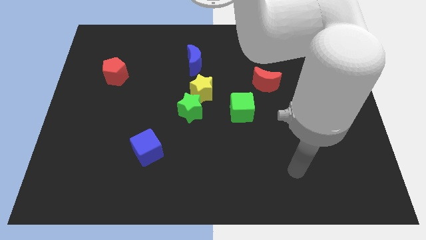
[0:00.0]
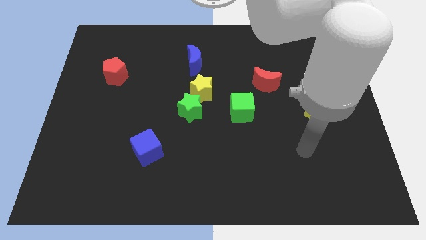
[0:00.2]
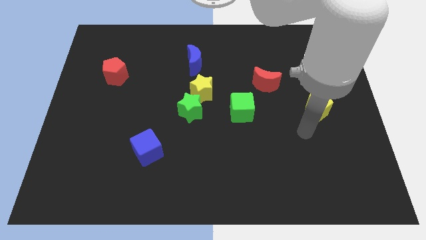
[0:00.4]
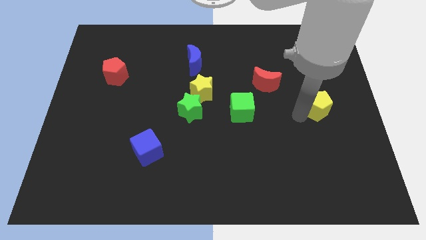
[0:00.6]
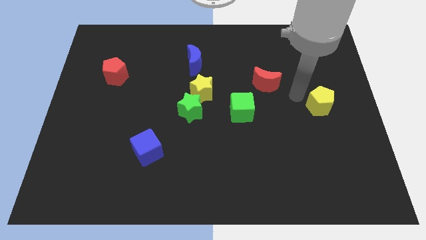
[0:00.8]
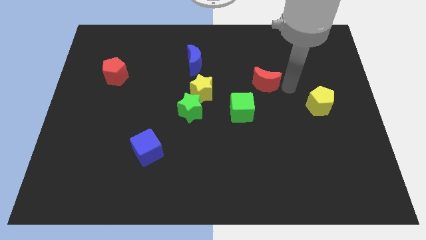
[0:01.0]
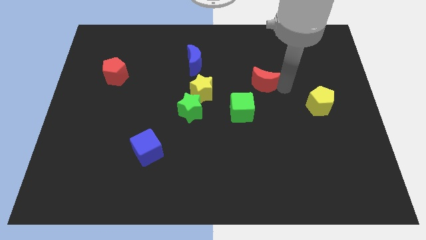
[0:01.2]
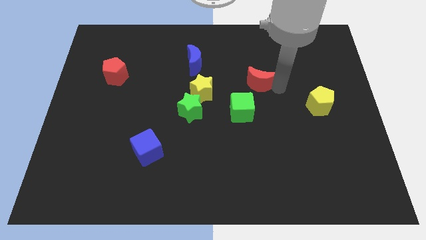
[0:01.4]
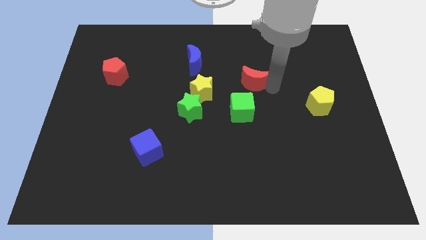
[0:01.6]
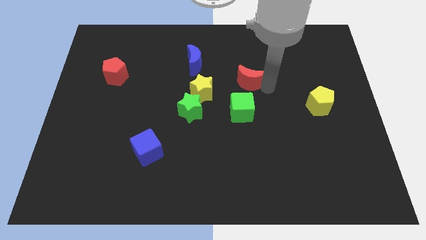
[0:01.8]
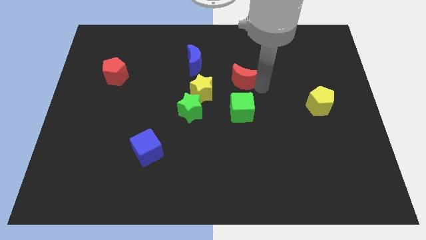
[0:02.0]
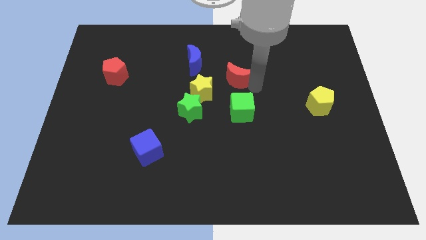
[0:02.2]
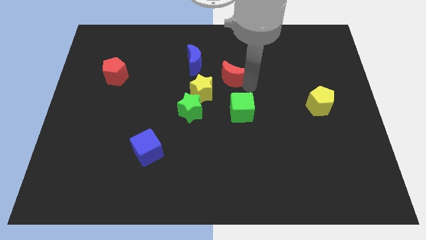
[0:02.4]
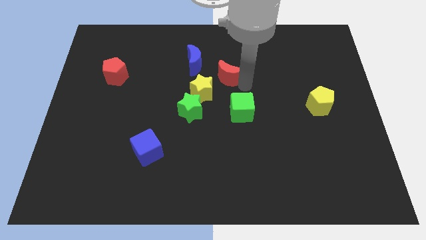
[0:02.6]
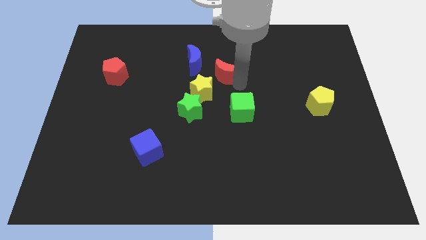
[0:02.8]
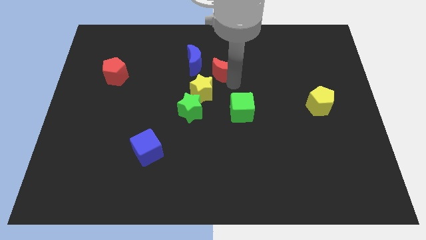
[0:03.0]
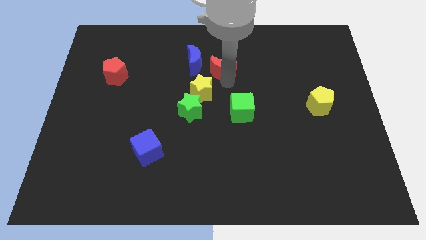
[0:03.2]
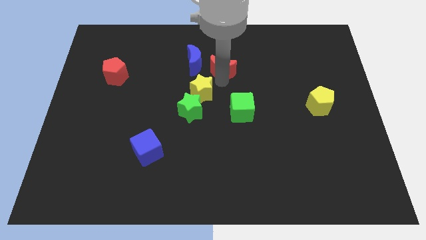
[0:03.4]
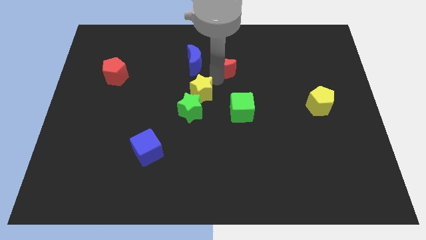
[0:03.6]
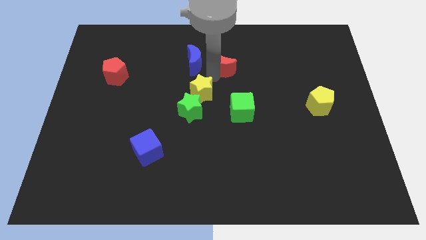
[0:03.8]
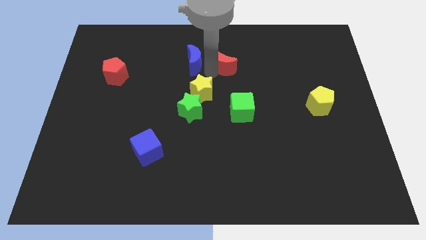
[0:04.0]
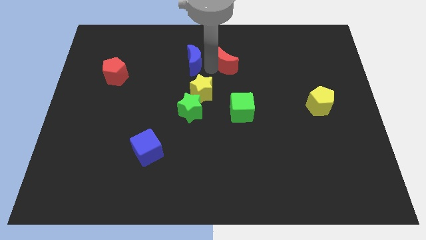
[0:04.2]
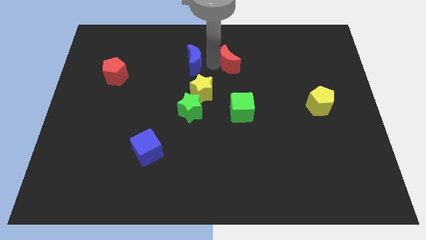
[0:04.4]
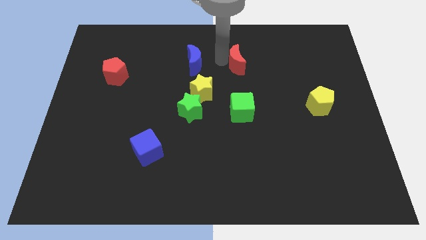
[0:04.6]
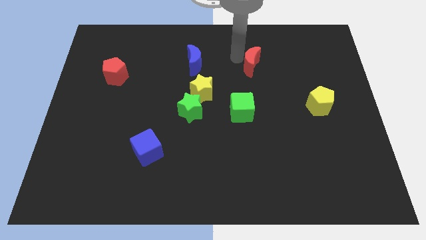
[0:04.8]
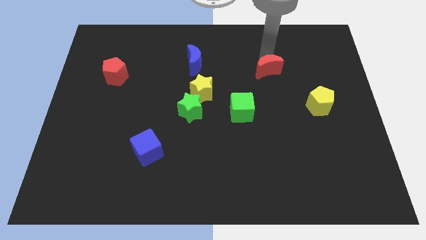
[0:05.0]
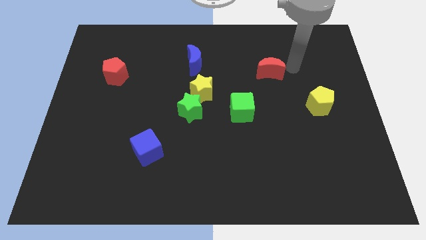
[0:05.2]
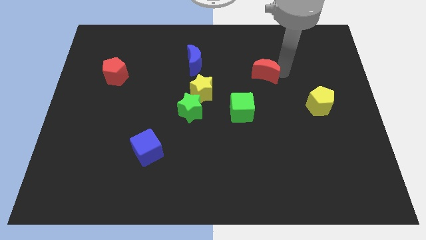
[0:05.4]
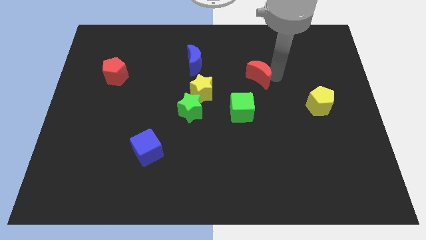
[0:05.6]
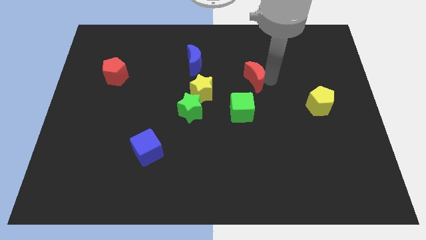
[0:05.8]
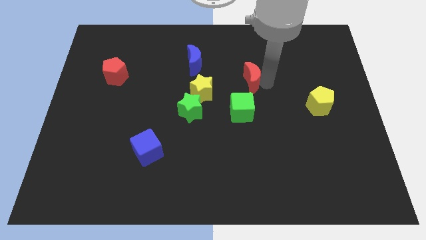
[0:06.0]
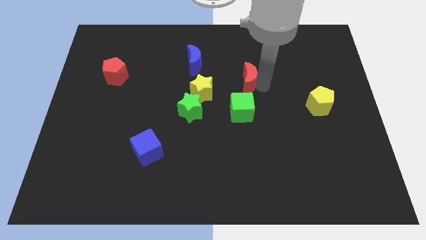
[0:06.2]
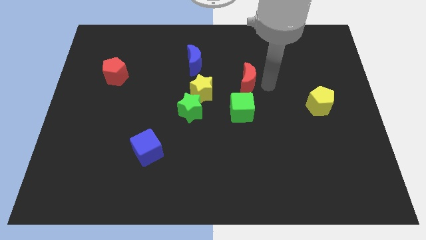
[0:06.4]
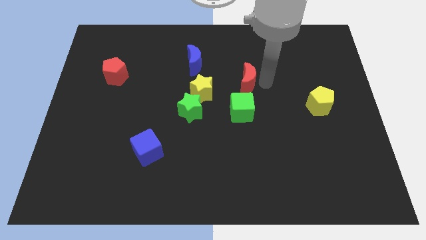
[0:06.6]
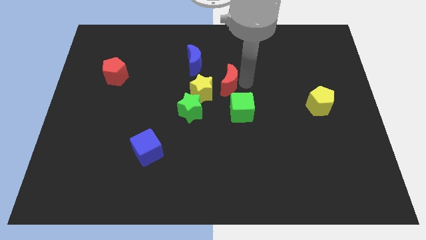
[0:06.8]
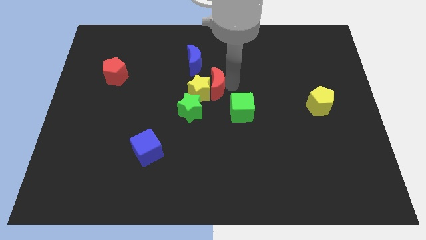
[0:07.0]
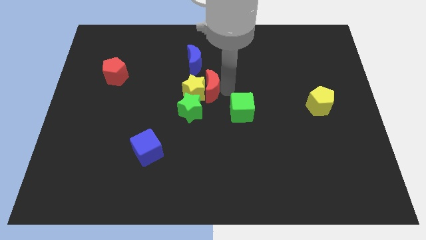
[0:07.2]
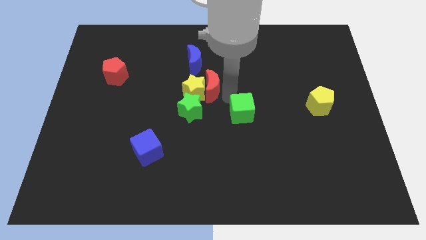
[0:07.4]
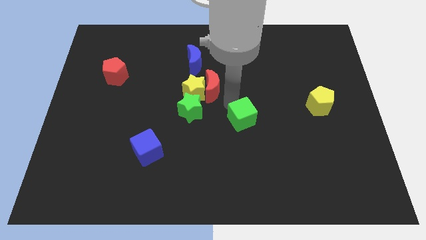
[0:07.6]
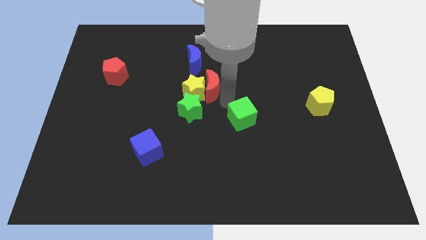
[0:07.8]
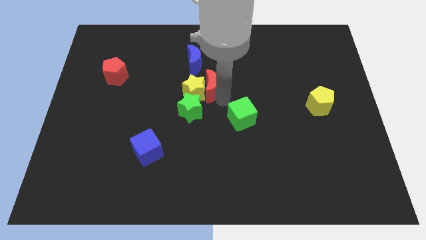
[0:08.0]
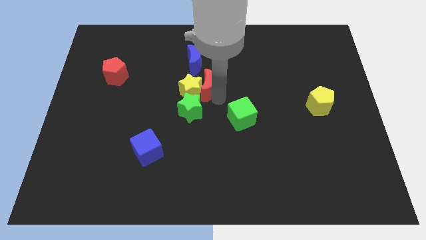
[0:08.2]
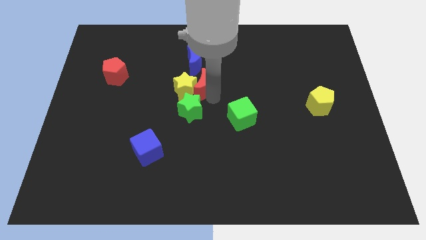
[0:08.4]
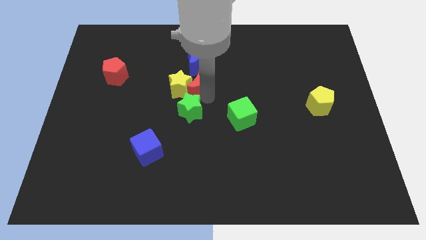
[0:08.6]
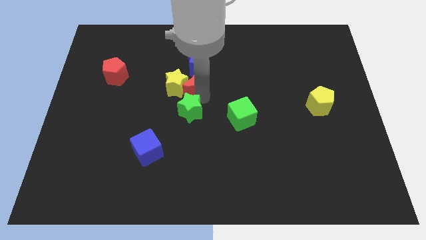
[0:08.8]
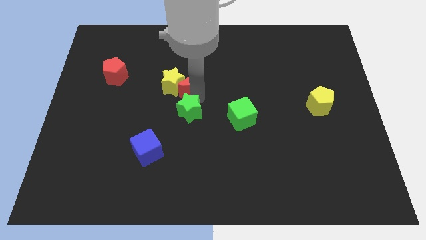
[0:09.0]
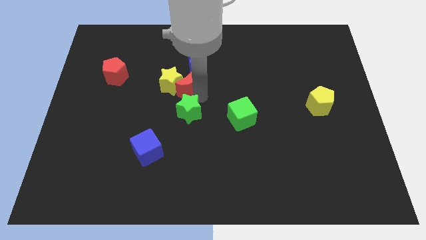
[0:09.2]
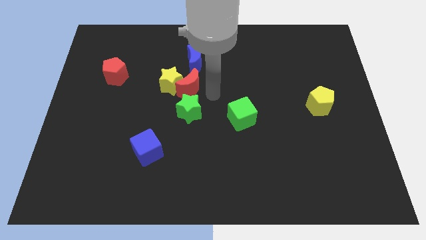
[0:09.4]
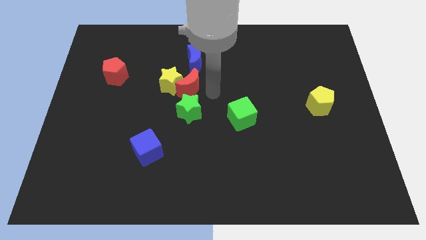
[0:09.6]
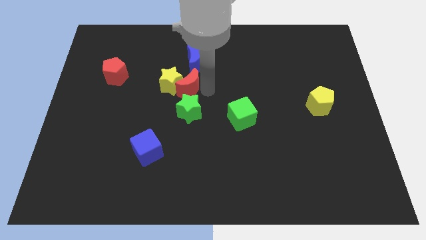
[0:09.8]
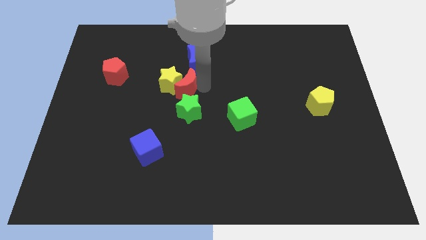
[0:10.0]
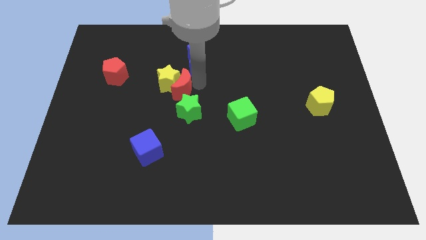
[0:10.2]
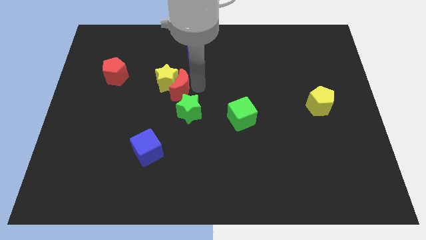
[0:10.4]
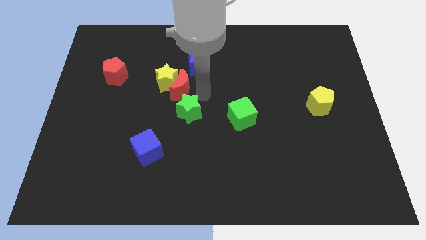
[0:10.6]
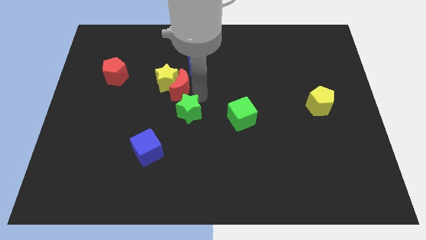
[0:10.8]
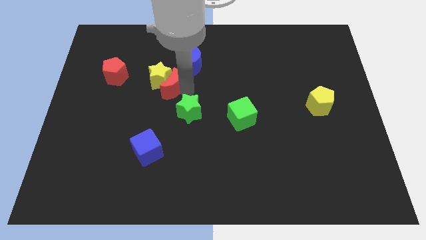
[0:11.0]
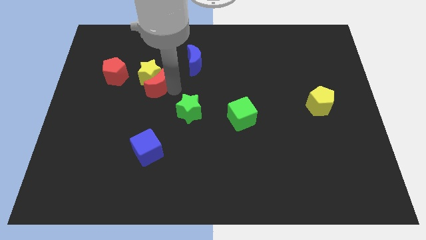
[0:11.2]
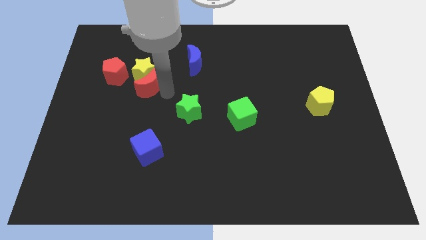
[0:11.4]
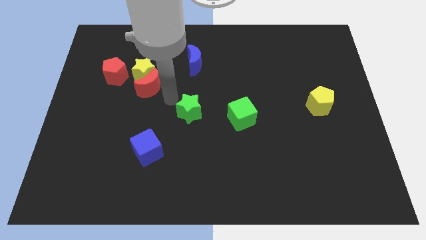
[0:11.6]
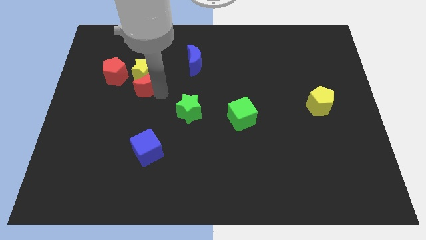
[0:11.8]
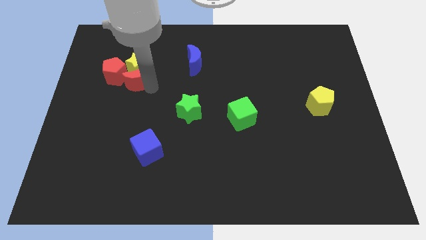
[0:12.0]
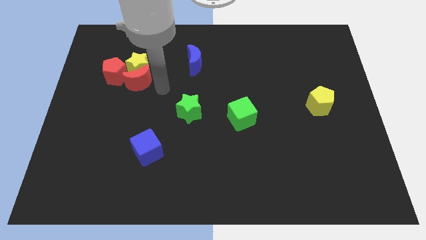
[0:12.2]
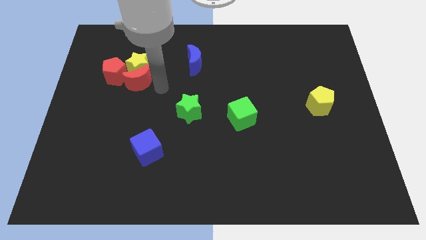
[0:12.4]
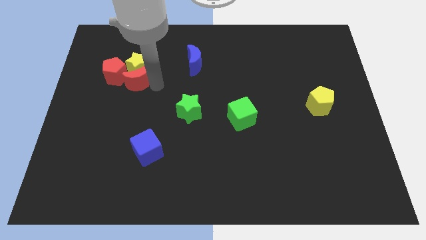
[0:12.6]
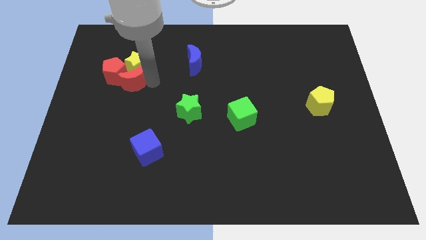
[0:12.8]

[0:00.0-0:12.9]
move the red moon towards the red pentagon

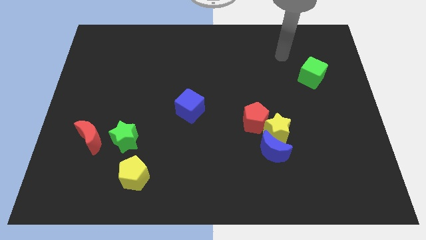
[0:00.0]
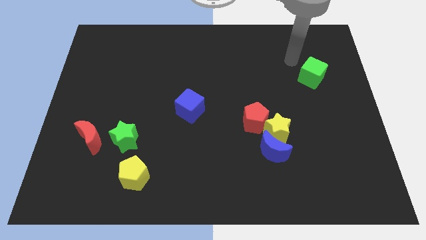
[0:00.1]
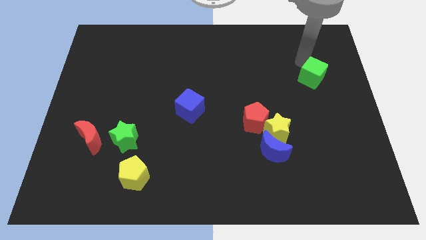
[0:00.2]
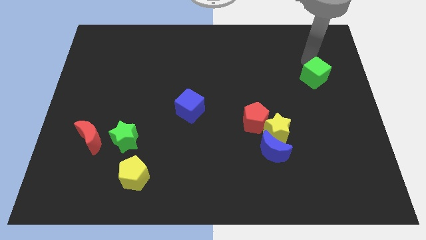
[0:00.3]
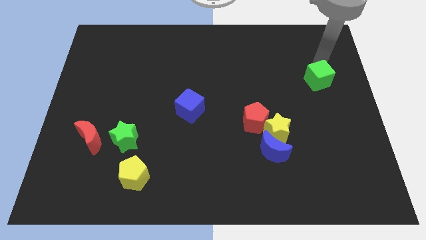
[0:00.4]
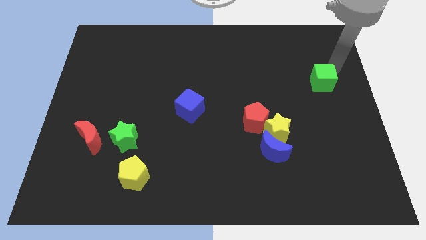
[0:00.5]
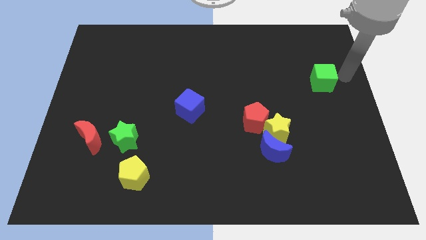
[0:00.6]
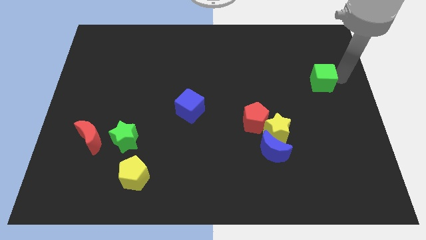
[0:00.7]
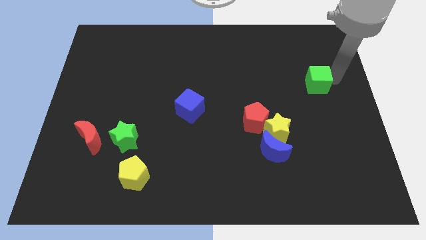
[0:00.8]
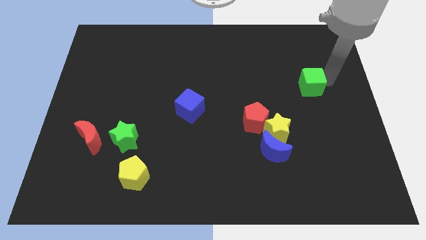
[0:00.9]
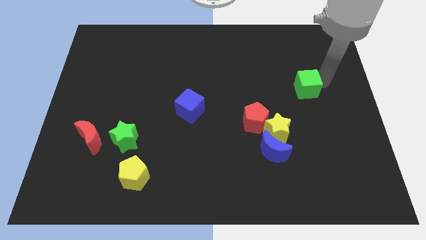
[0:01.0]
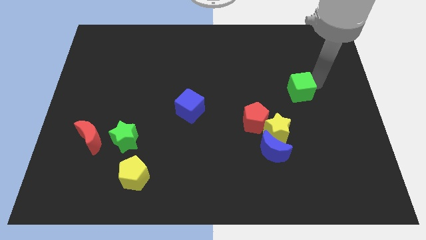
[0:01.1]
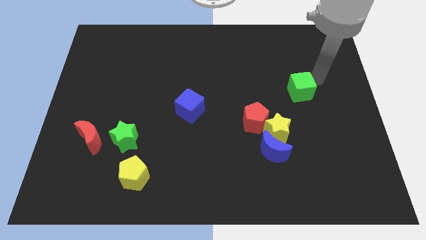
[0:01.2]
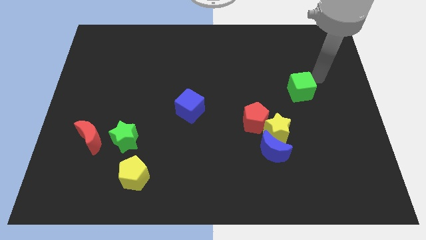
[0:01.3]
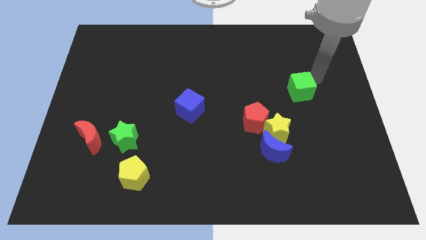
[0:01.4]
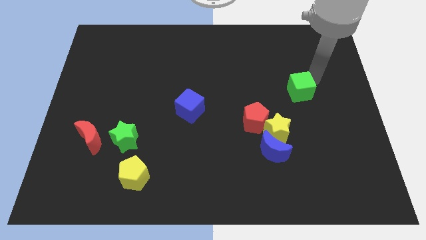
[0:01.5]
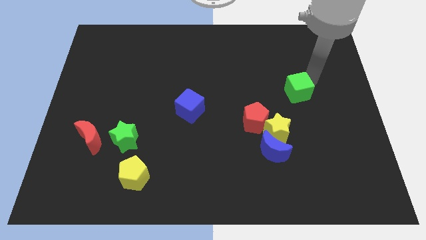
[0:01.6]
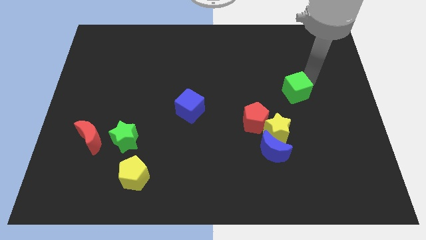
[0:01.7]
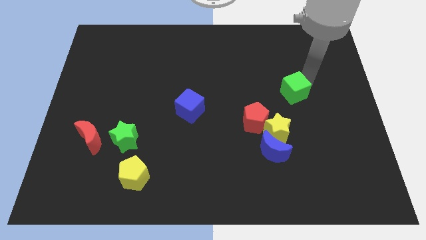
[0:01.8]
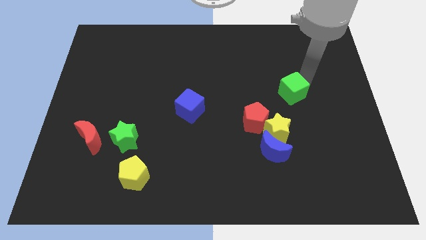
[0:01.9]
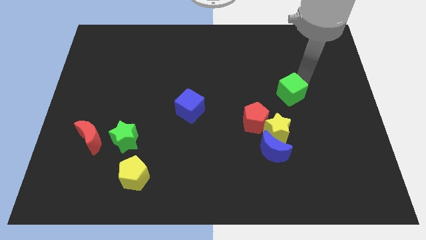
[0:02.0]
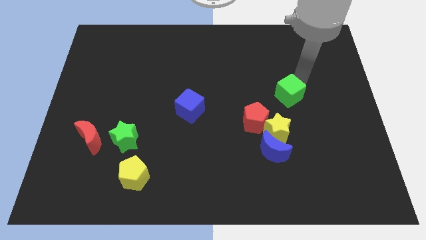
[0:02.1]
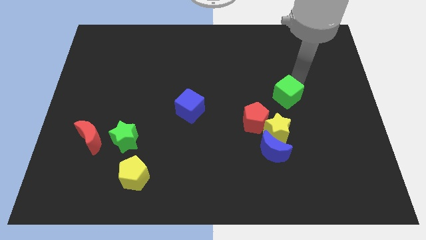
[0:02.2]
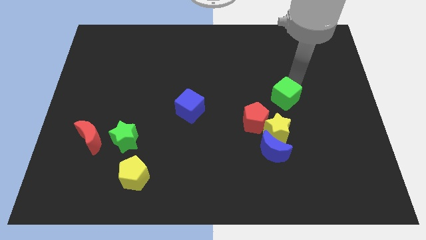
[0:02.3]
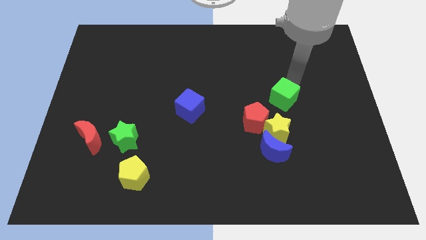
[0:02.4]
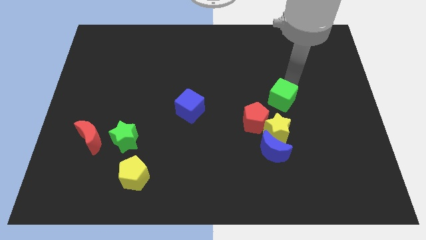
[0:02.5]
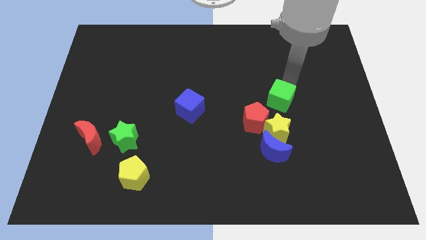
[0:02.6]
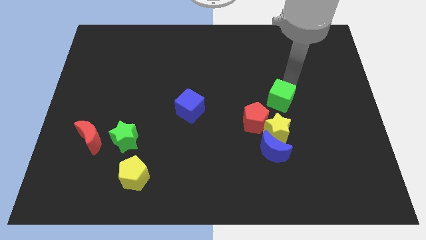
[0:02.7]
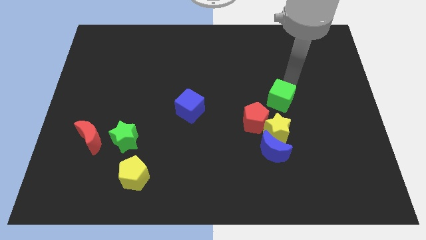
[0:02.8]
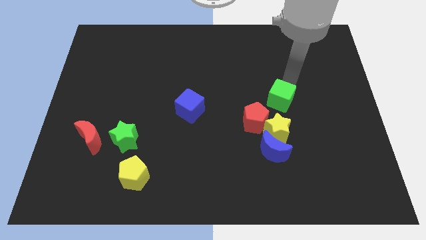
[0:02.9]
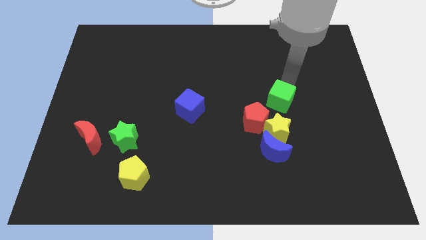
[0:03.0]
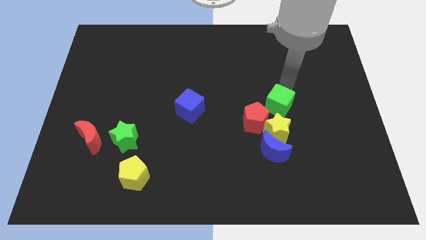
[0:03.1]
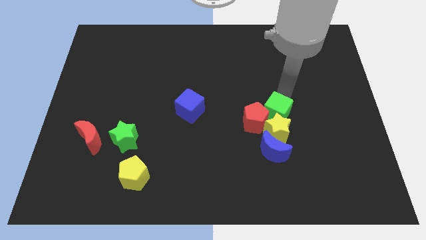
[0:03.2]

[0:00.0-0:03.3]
slide the green cube towards the red pentagon
